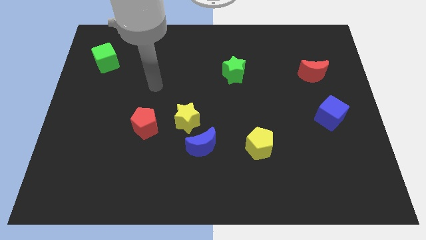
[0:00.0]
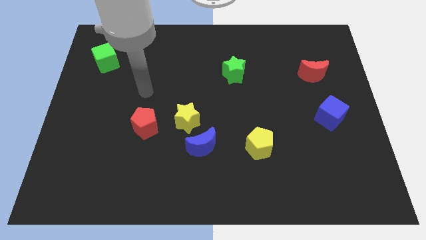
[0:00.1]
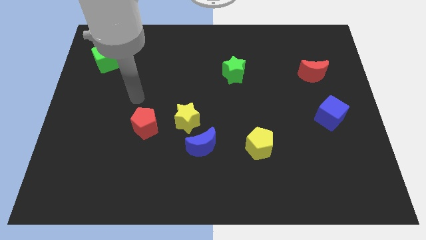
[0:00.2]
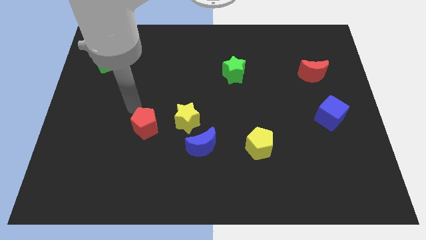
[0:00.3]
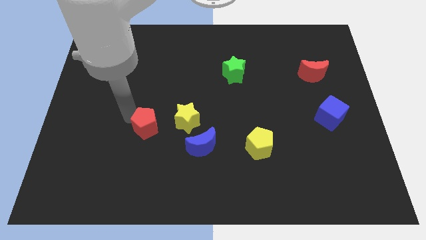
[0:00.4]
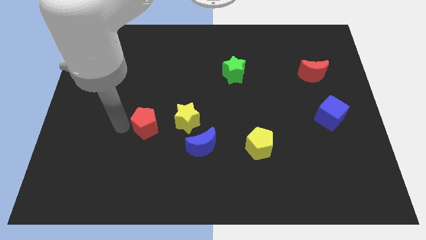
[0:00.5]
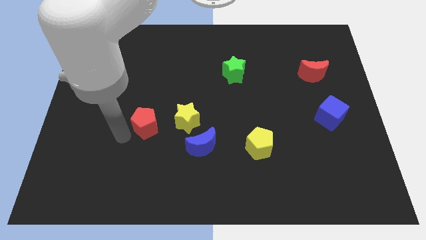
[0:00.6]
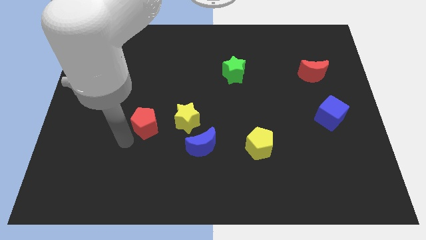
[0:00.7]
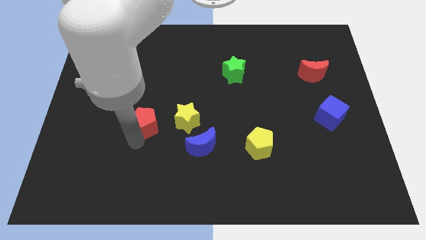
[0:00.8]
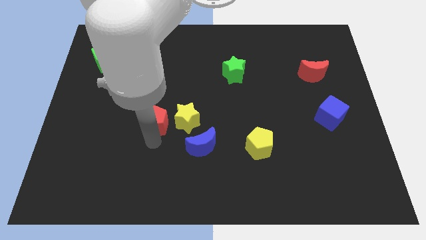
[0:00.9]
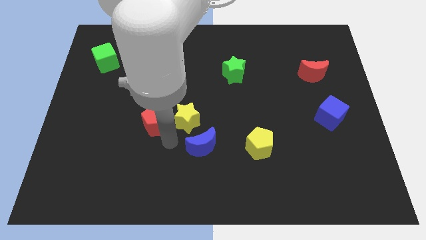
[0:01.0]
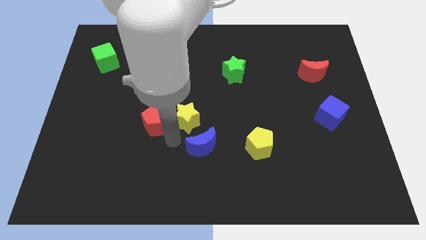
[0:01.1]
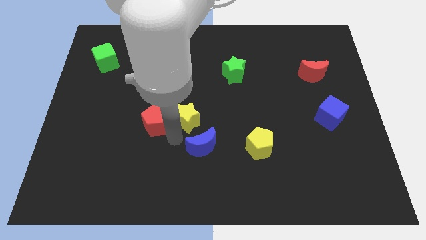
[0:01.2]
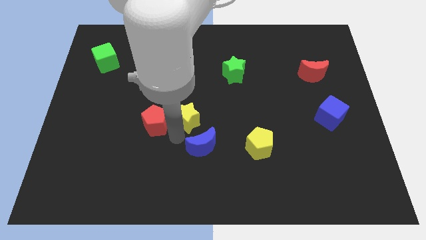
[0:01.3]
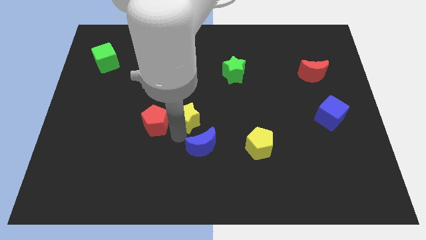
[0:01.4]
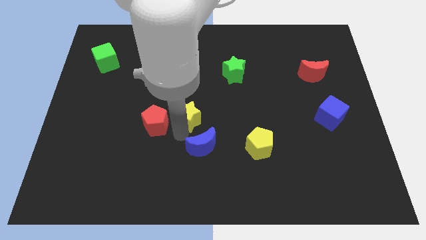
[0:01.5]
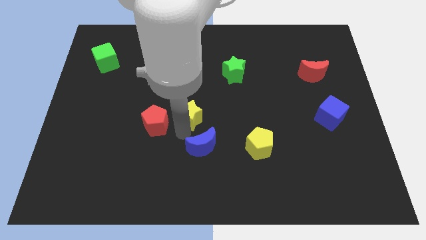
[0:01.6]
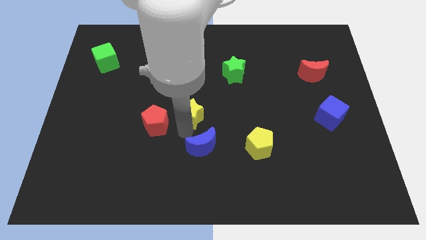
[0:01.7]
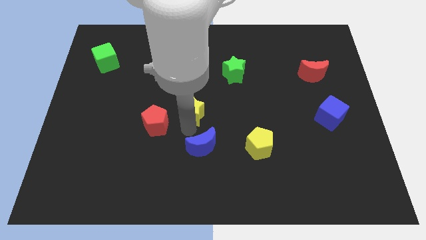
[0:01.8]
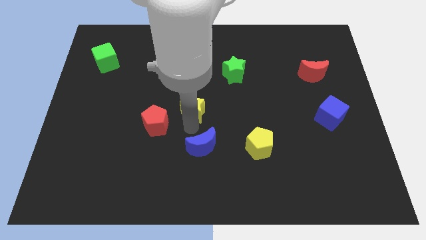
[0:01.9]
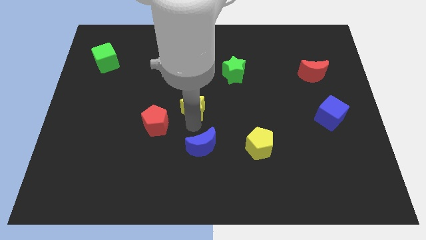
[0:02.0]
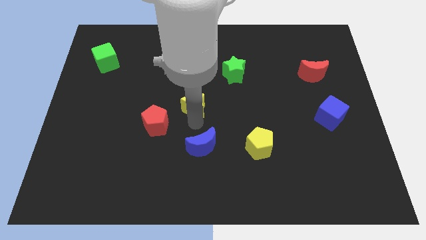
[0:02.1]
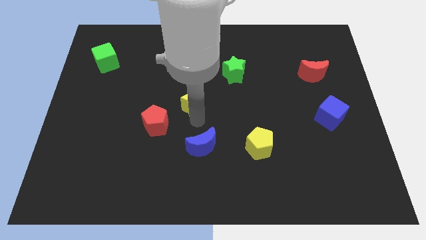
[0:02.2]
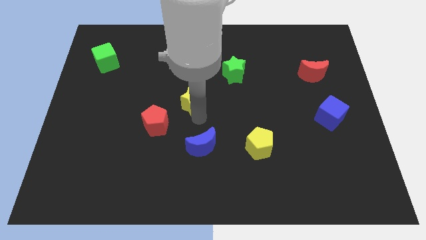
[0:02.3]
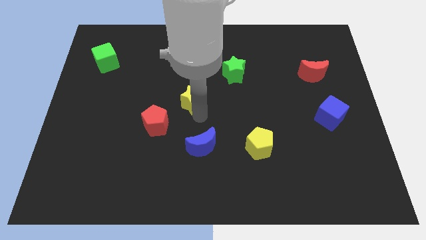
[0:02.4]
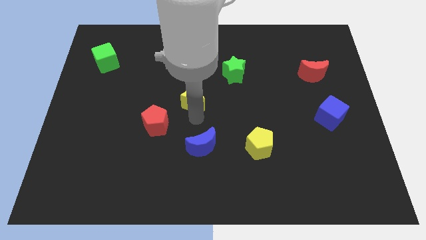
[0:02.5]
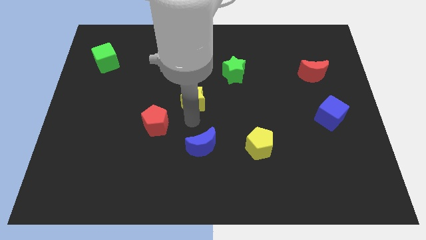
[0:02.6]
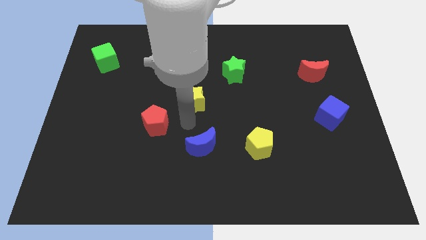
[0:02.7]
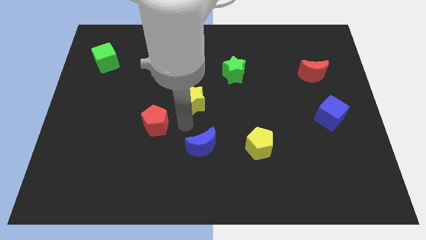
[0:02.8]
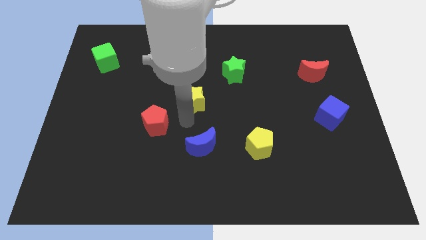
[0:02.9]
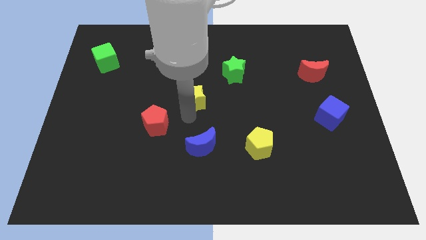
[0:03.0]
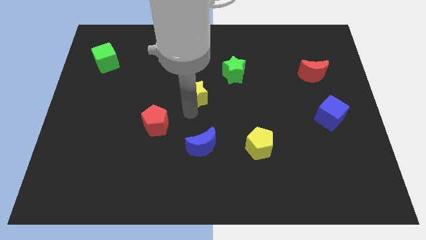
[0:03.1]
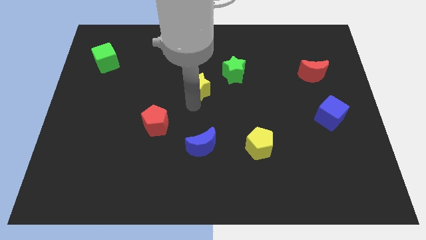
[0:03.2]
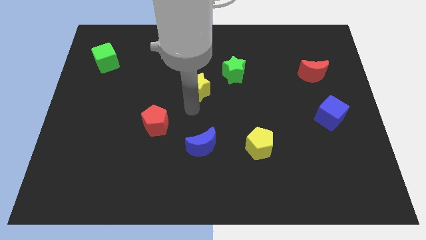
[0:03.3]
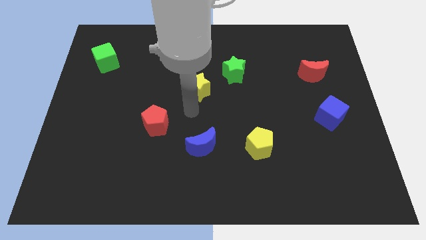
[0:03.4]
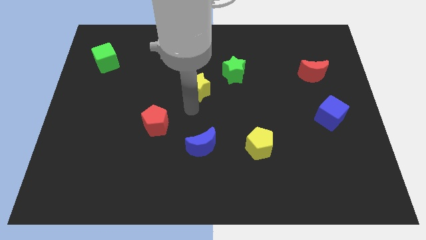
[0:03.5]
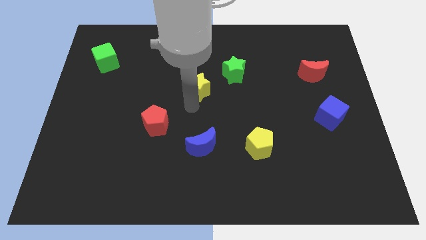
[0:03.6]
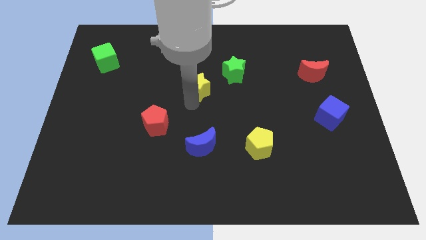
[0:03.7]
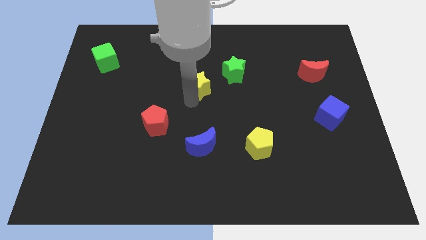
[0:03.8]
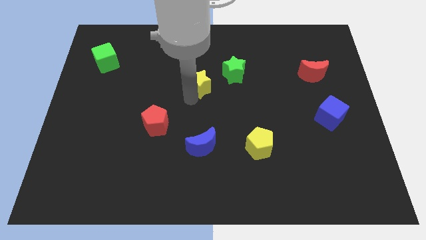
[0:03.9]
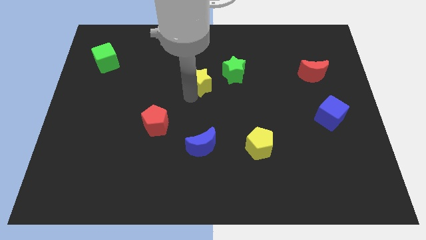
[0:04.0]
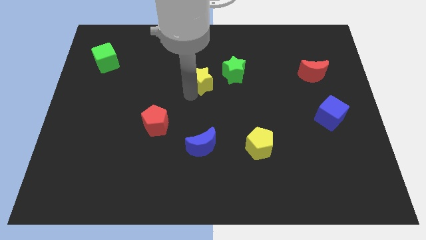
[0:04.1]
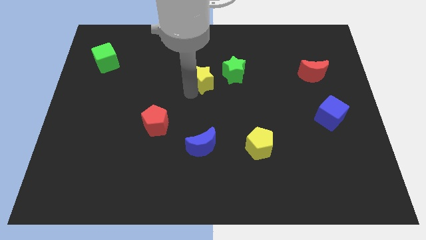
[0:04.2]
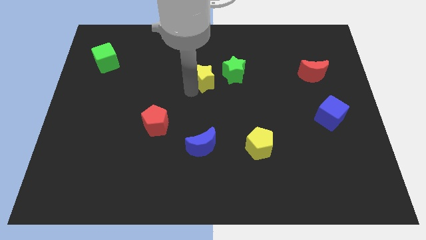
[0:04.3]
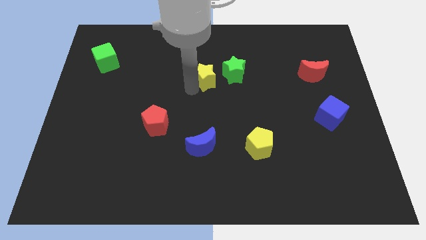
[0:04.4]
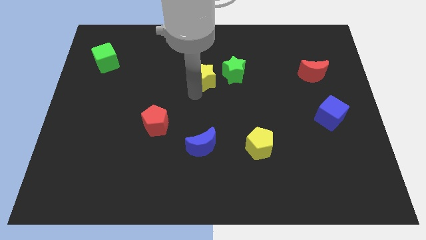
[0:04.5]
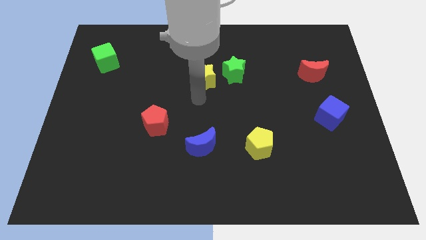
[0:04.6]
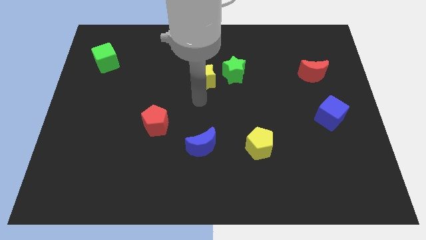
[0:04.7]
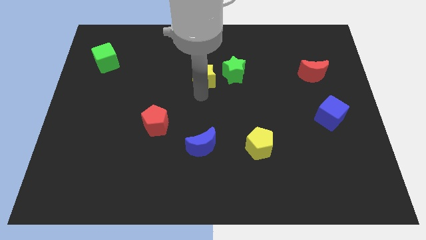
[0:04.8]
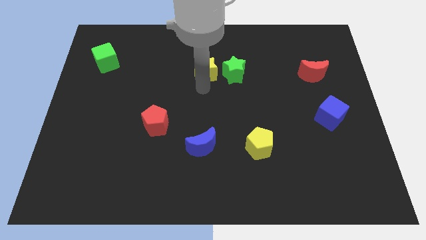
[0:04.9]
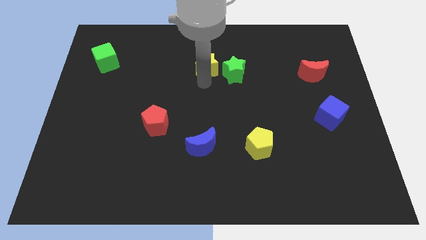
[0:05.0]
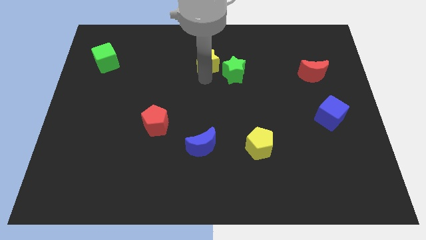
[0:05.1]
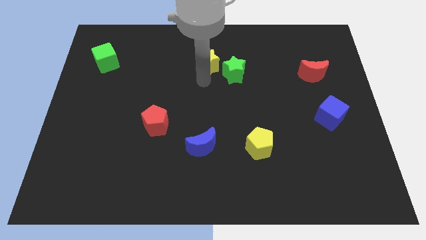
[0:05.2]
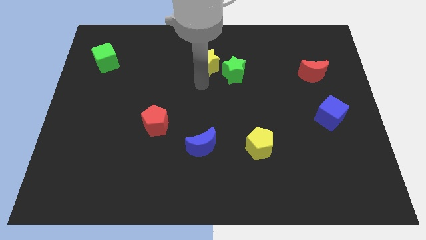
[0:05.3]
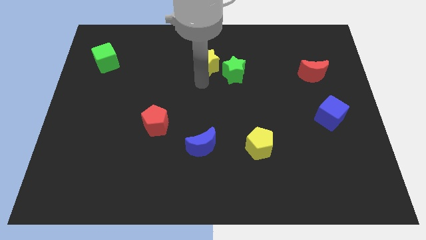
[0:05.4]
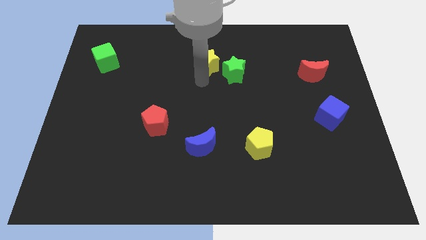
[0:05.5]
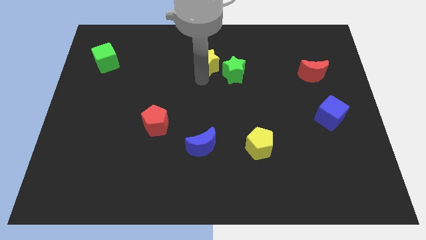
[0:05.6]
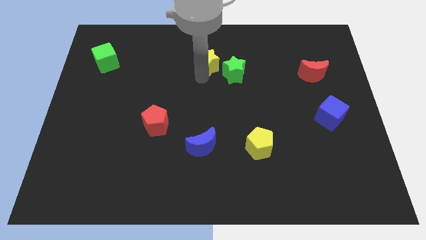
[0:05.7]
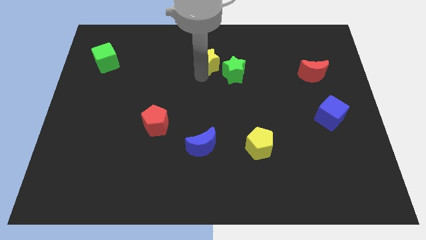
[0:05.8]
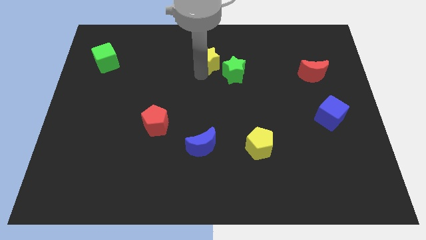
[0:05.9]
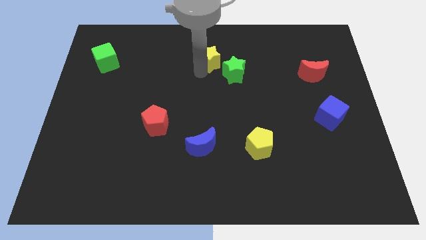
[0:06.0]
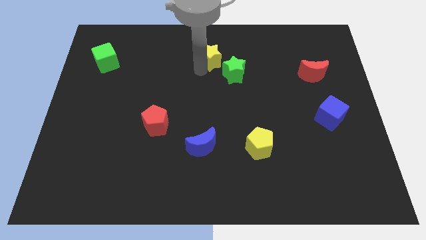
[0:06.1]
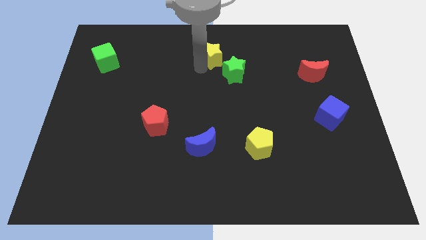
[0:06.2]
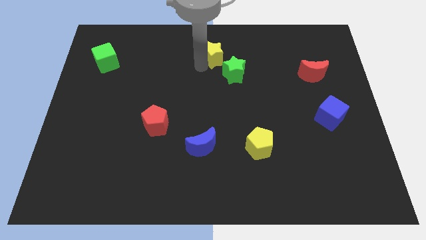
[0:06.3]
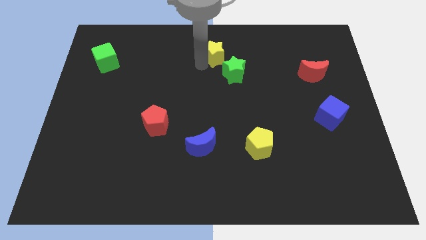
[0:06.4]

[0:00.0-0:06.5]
slide the yellow star to the top side
